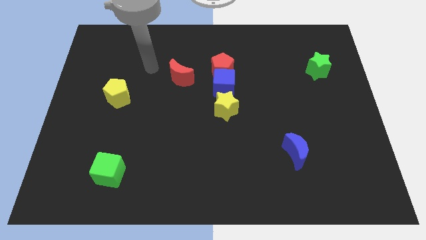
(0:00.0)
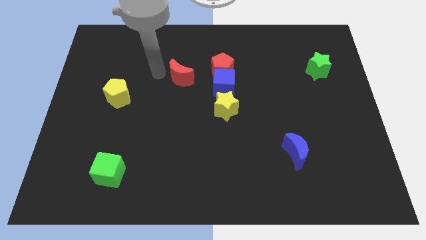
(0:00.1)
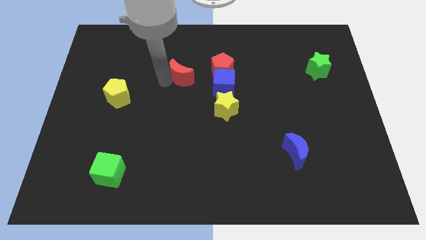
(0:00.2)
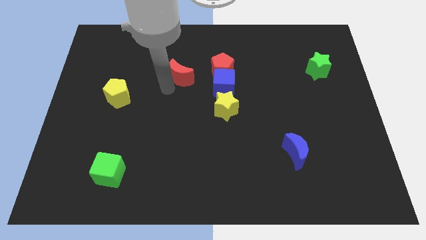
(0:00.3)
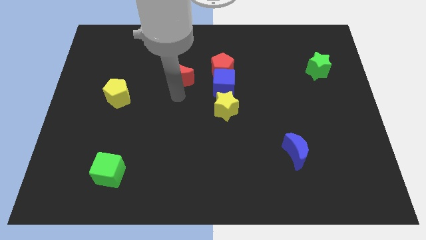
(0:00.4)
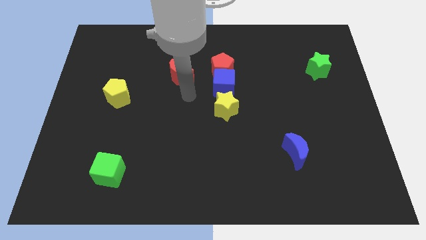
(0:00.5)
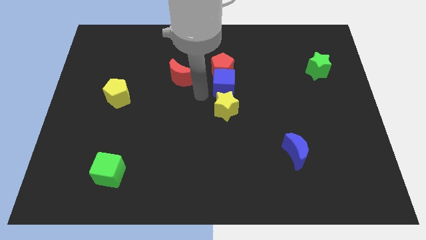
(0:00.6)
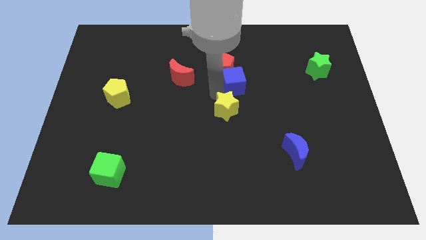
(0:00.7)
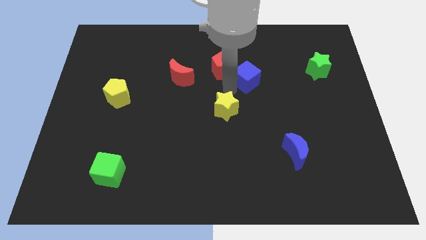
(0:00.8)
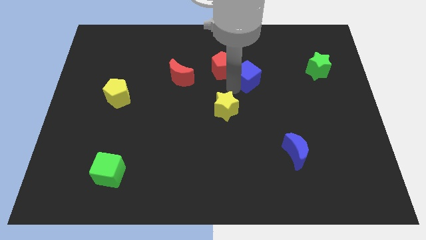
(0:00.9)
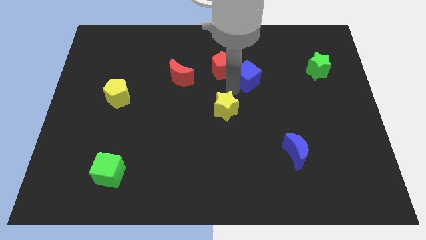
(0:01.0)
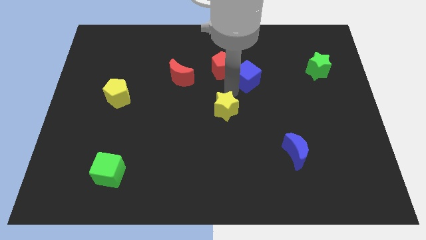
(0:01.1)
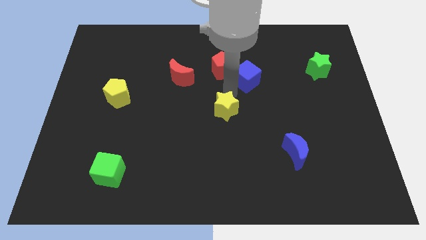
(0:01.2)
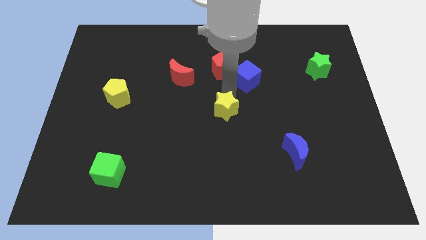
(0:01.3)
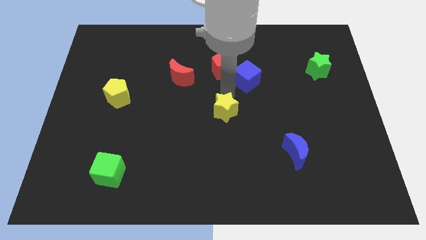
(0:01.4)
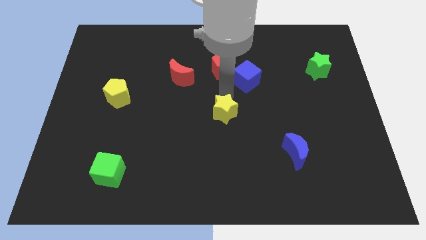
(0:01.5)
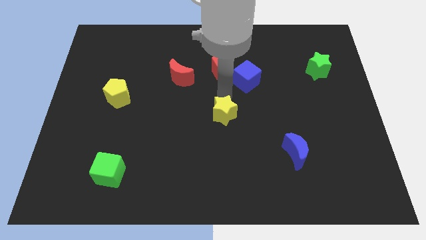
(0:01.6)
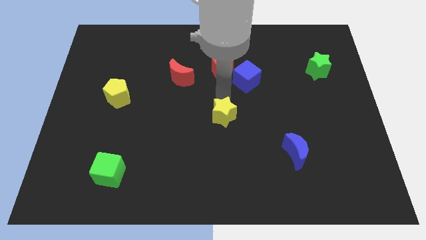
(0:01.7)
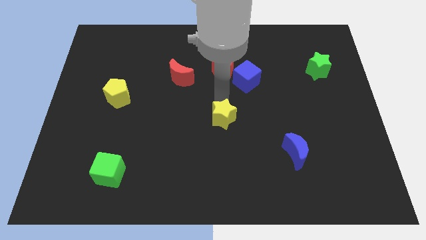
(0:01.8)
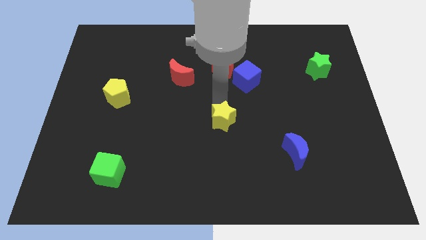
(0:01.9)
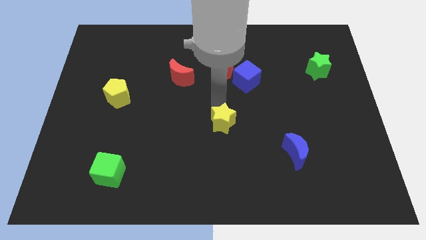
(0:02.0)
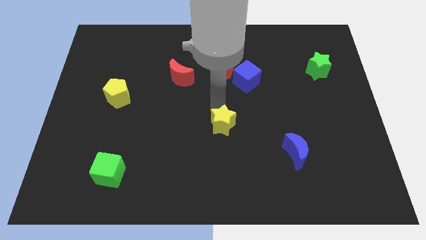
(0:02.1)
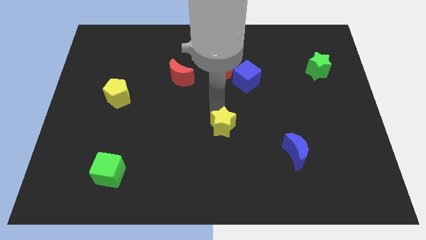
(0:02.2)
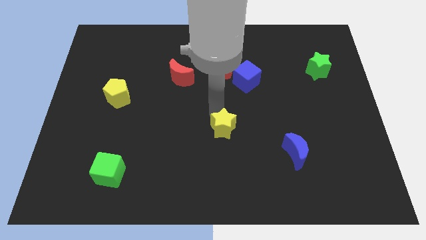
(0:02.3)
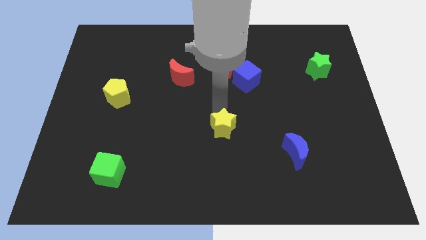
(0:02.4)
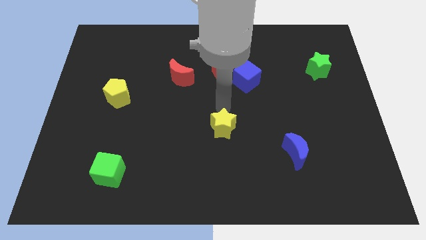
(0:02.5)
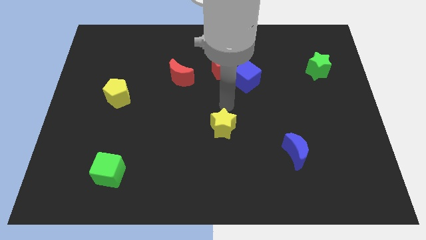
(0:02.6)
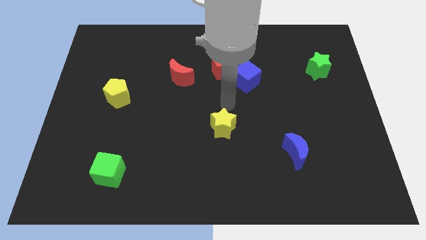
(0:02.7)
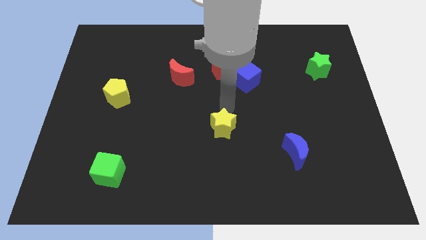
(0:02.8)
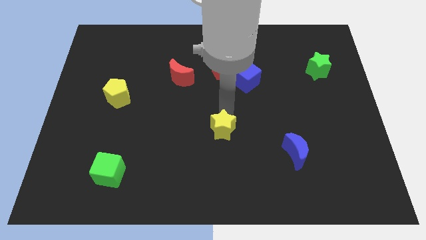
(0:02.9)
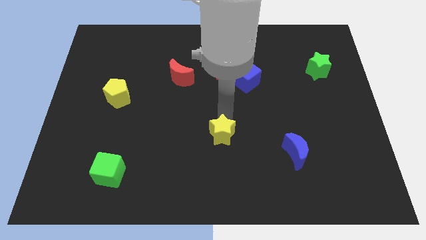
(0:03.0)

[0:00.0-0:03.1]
push the yellow star down slightly

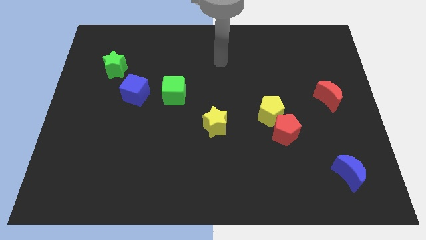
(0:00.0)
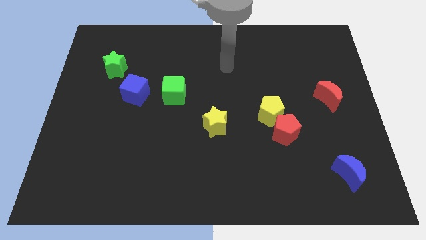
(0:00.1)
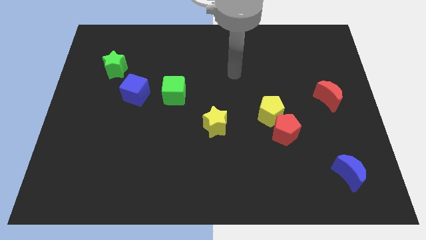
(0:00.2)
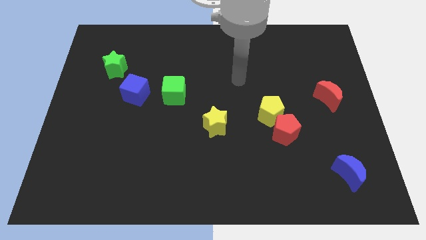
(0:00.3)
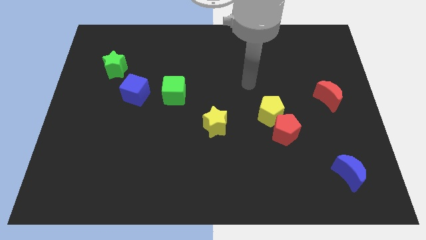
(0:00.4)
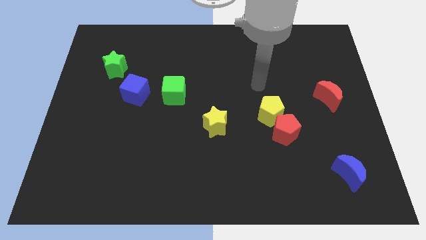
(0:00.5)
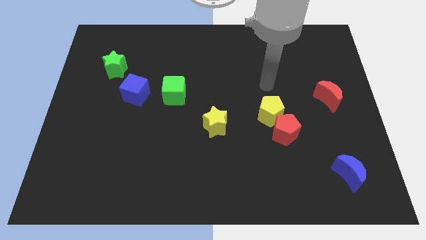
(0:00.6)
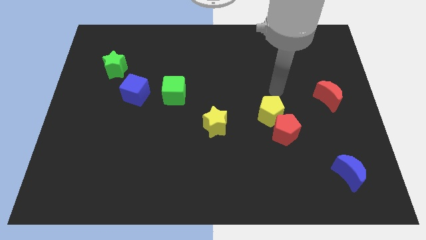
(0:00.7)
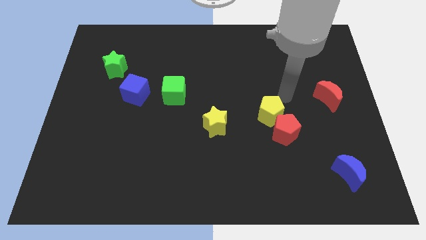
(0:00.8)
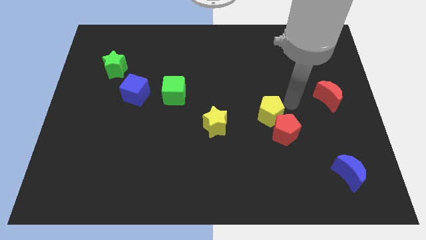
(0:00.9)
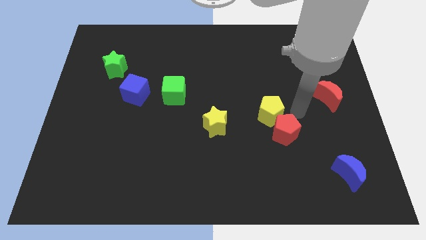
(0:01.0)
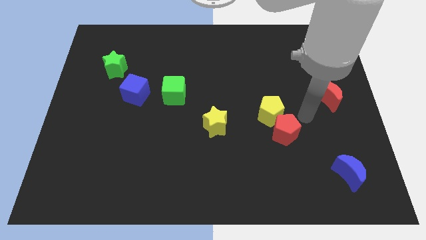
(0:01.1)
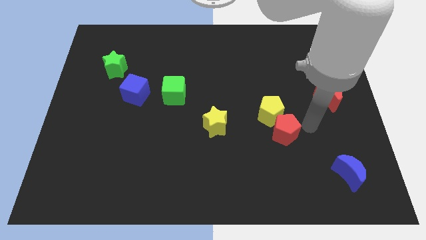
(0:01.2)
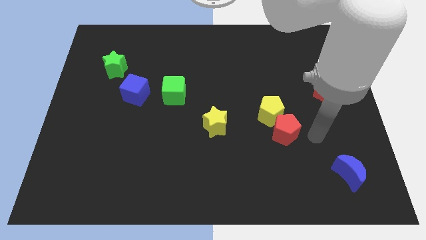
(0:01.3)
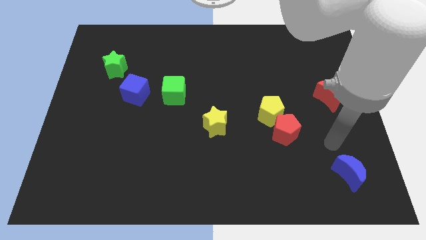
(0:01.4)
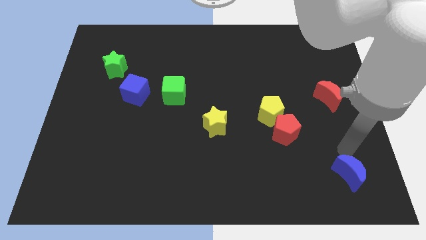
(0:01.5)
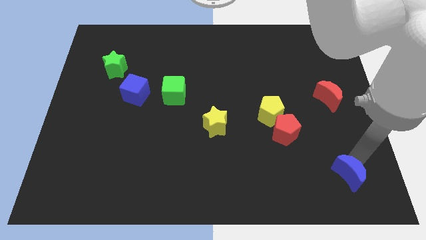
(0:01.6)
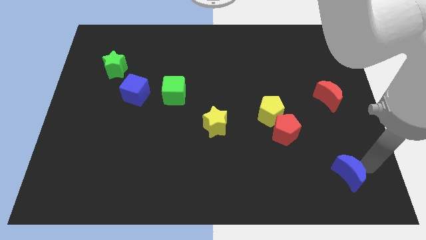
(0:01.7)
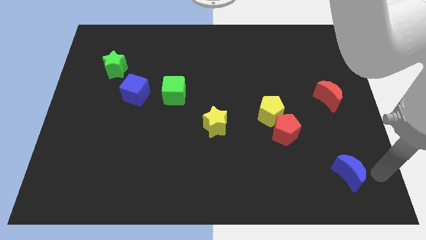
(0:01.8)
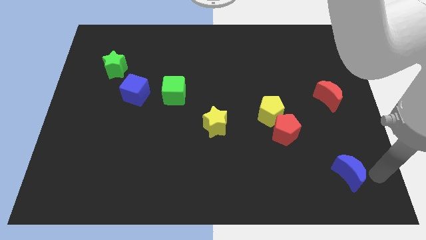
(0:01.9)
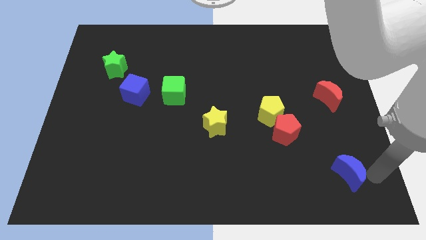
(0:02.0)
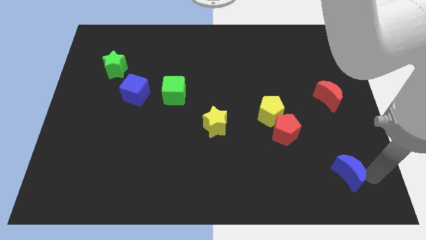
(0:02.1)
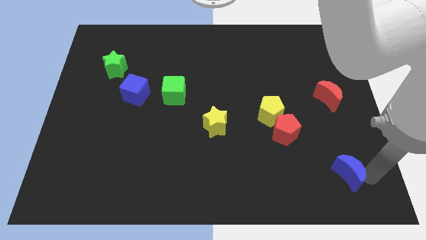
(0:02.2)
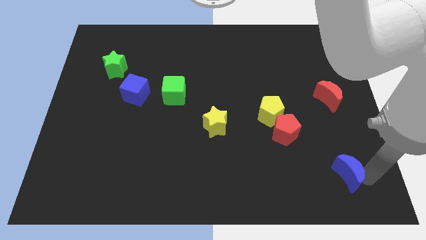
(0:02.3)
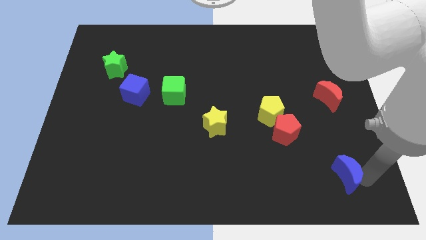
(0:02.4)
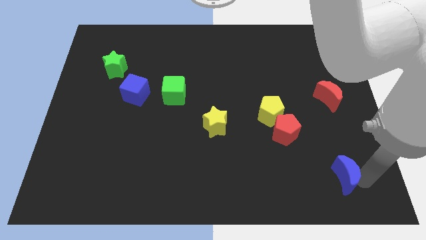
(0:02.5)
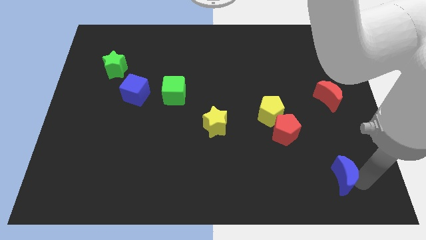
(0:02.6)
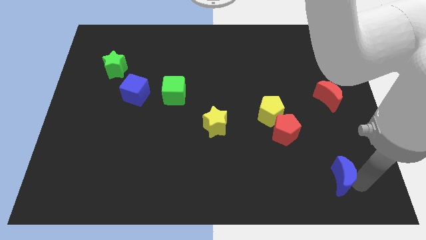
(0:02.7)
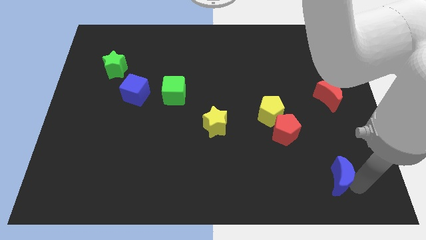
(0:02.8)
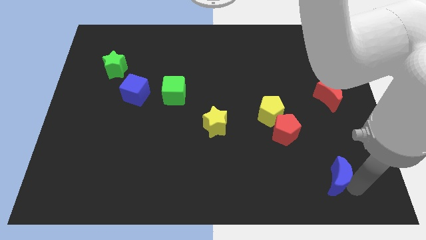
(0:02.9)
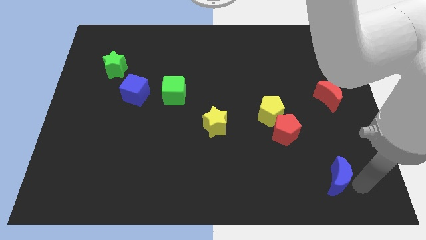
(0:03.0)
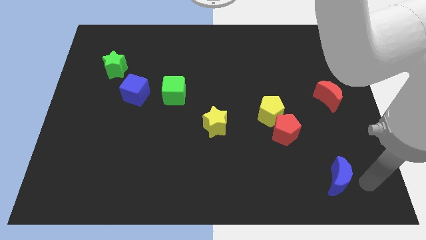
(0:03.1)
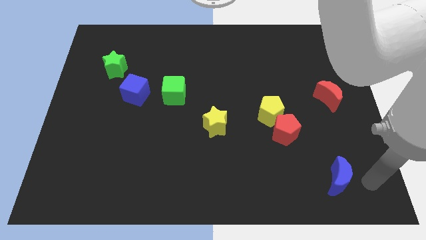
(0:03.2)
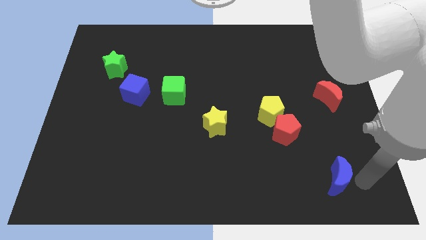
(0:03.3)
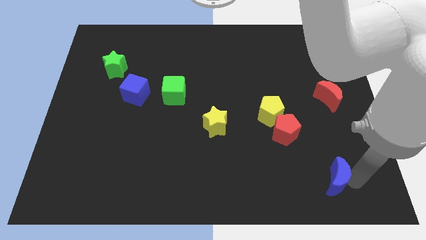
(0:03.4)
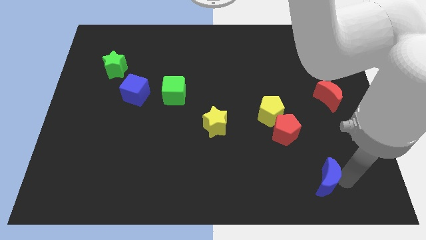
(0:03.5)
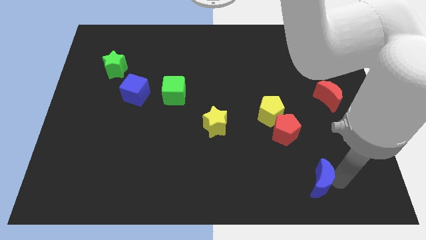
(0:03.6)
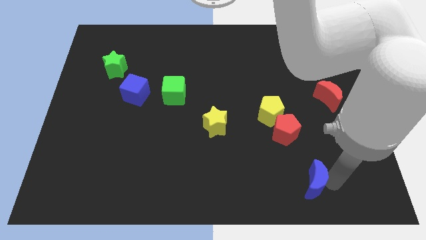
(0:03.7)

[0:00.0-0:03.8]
move the blue moon a little bit left

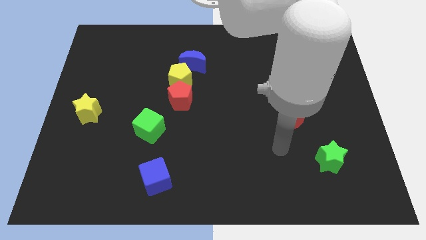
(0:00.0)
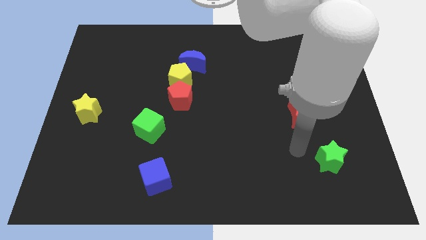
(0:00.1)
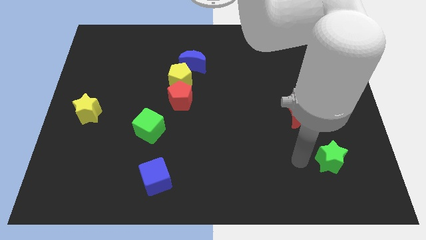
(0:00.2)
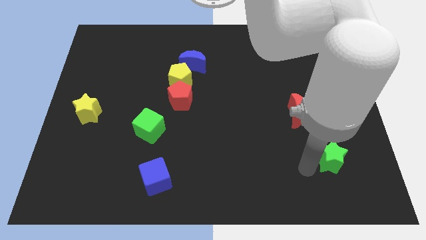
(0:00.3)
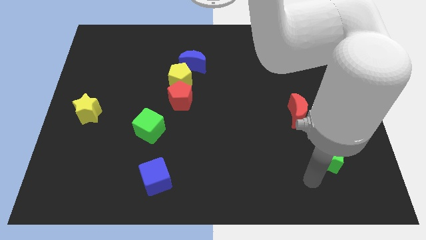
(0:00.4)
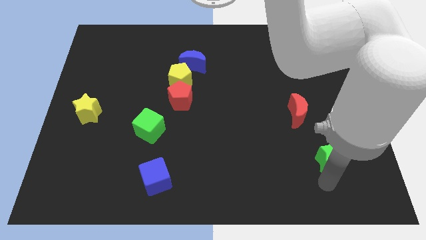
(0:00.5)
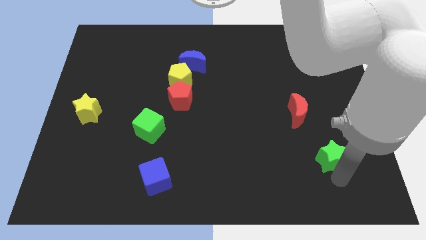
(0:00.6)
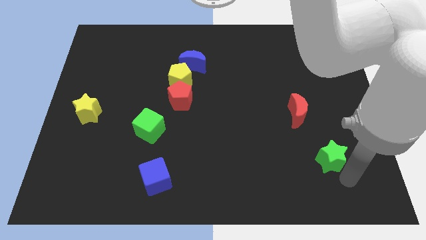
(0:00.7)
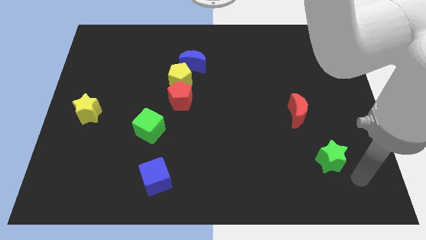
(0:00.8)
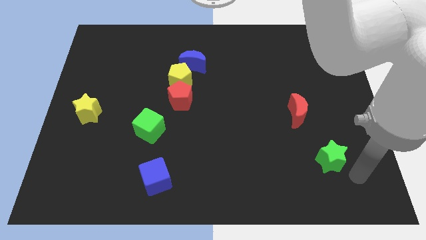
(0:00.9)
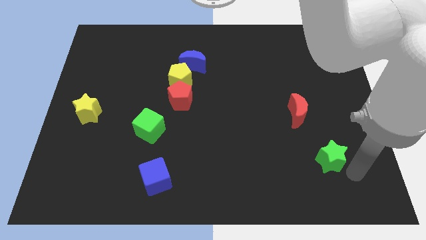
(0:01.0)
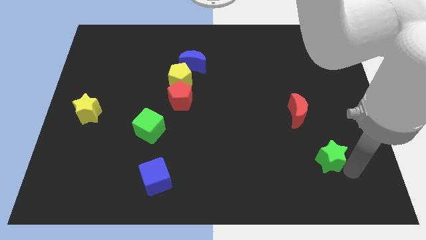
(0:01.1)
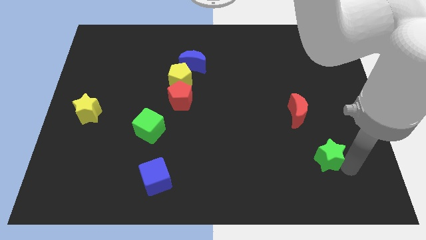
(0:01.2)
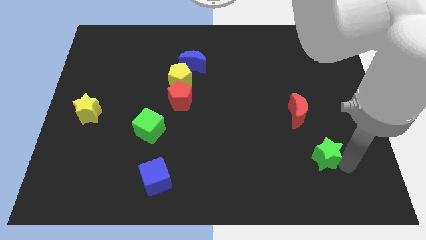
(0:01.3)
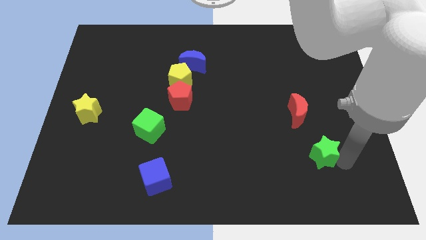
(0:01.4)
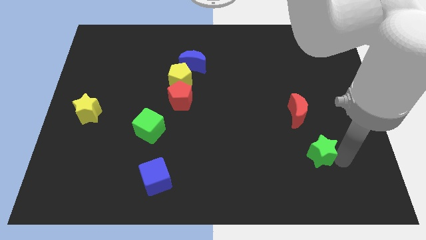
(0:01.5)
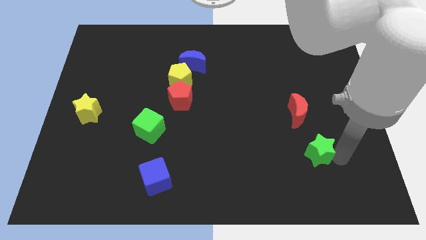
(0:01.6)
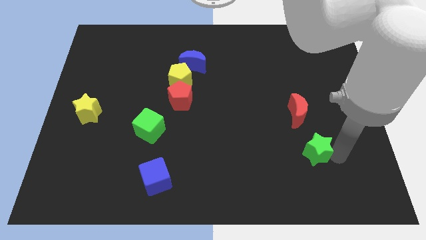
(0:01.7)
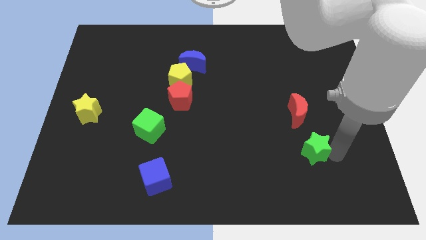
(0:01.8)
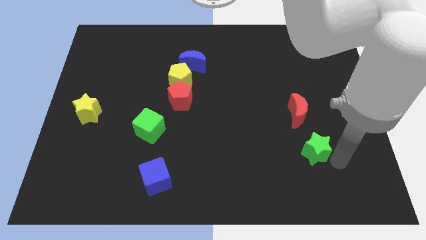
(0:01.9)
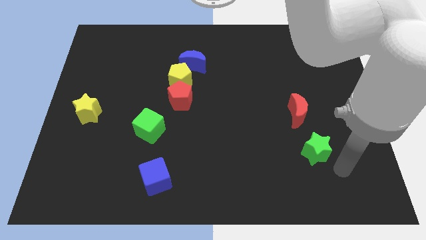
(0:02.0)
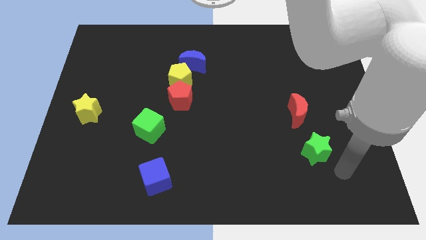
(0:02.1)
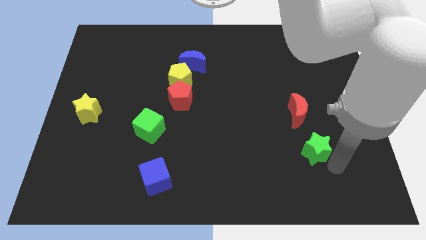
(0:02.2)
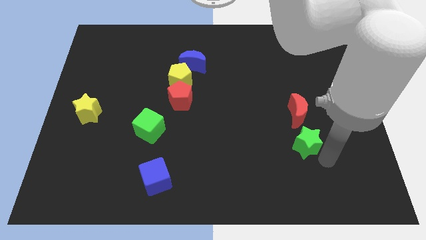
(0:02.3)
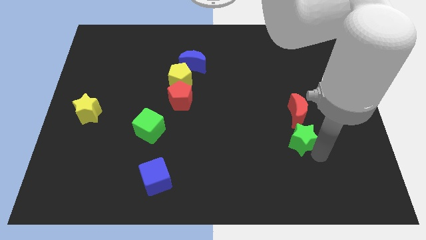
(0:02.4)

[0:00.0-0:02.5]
move the green star a little bit upwards and then to the left
